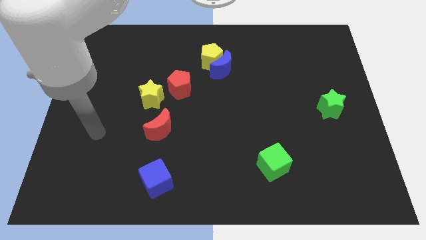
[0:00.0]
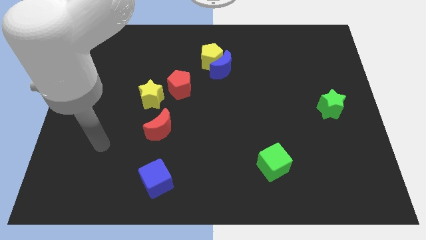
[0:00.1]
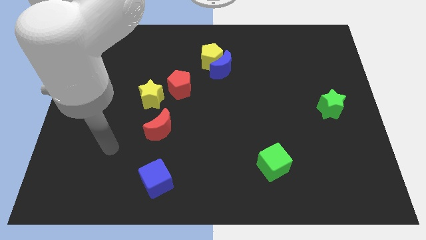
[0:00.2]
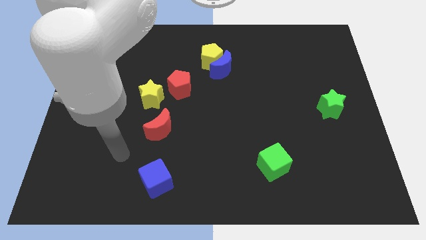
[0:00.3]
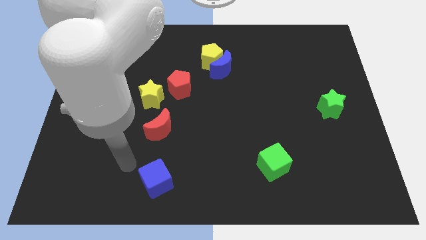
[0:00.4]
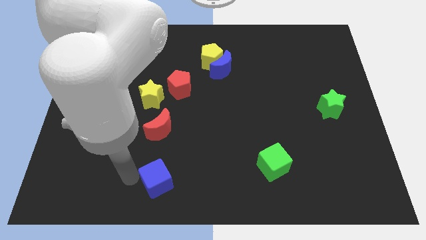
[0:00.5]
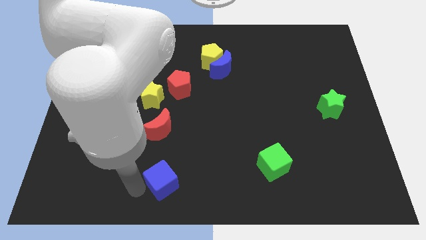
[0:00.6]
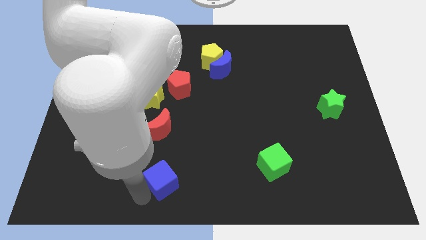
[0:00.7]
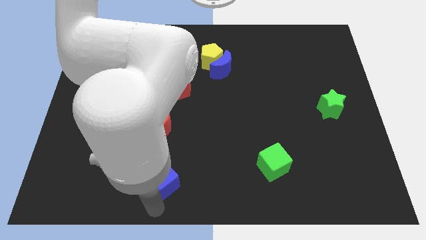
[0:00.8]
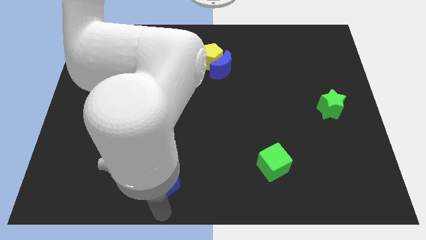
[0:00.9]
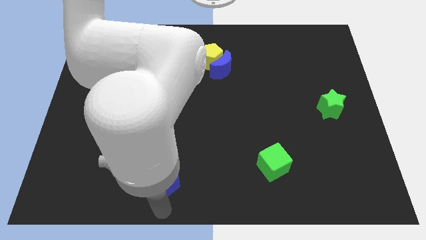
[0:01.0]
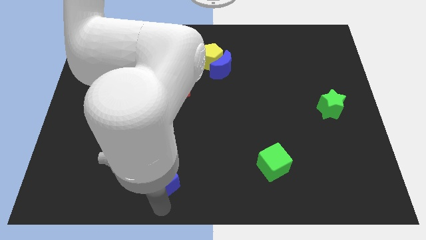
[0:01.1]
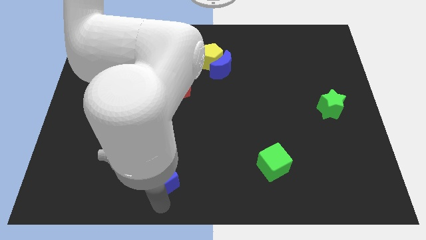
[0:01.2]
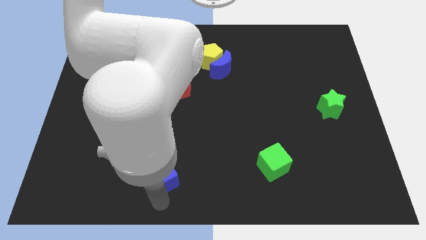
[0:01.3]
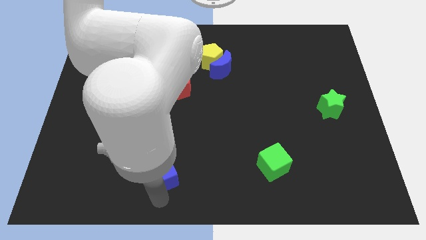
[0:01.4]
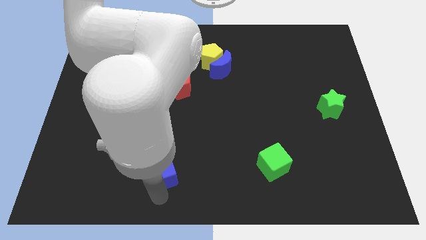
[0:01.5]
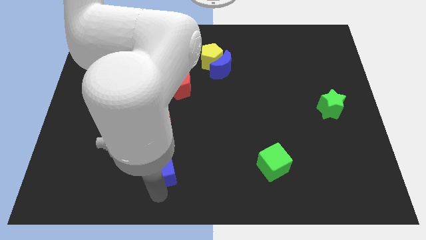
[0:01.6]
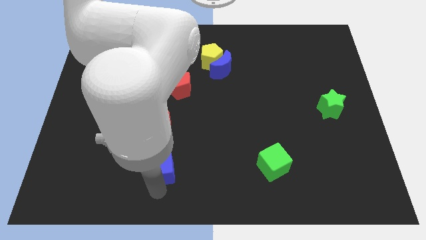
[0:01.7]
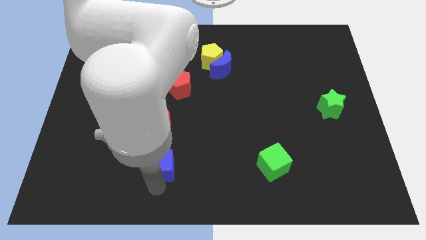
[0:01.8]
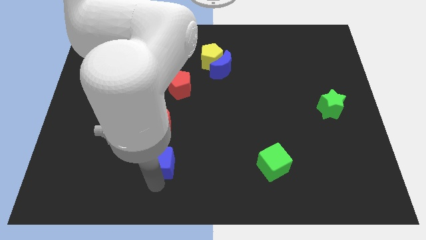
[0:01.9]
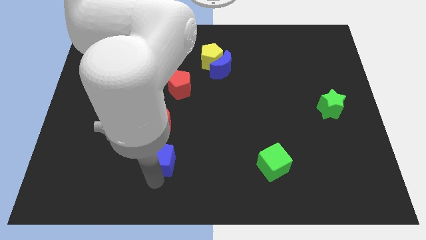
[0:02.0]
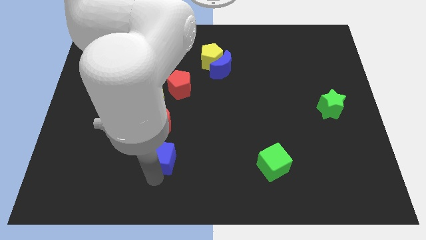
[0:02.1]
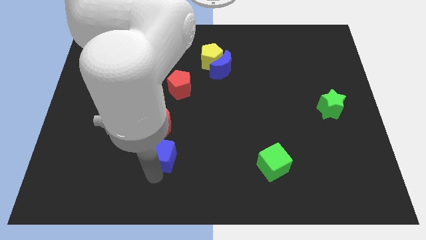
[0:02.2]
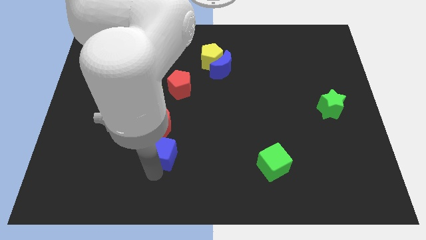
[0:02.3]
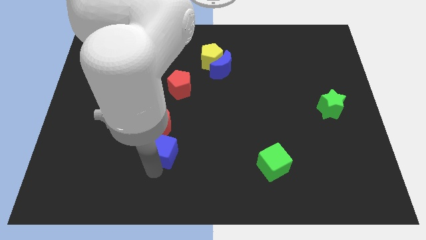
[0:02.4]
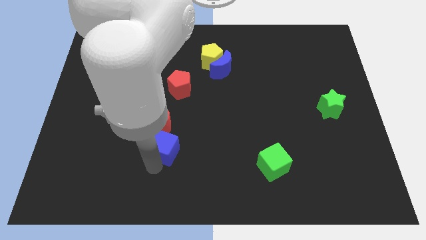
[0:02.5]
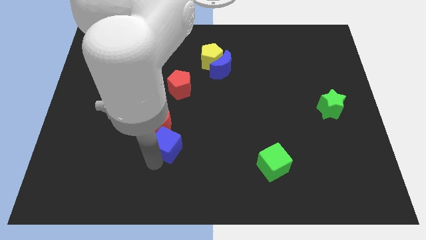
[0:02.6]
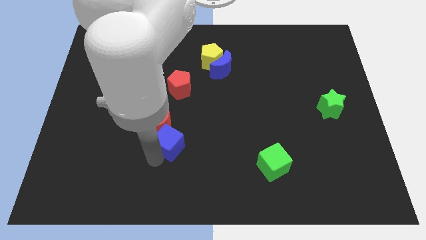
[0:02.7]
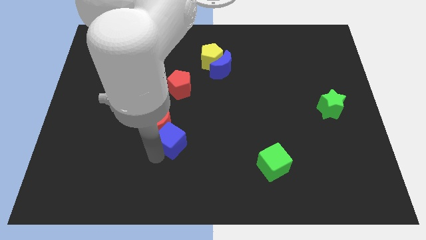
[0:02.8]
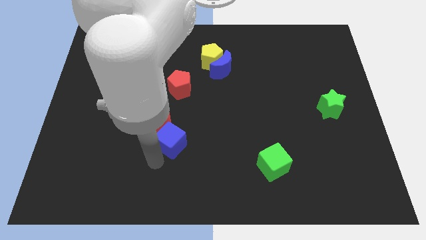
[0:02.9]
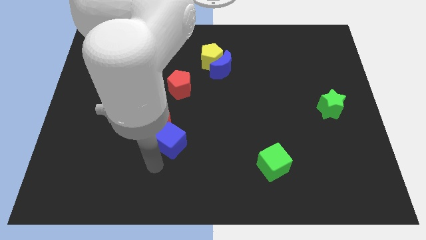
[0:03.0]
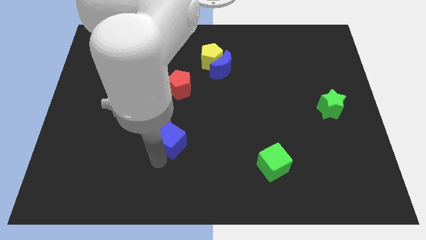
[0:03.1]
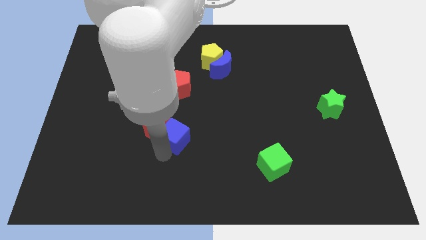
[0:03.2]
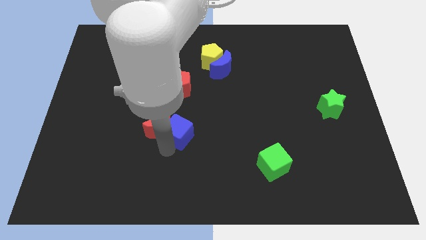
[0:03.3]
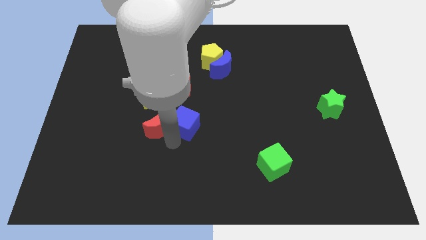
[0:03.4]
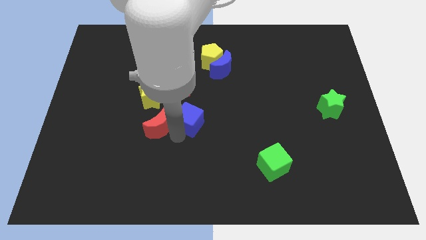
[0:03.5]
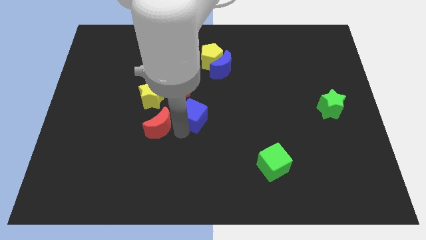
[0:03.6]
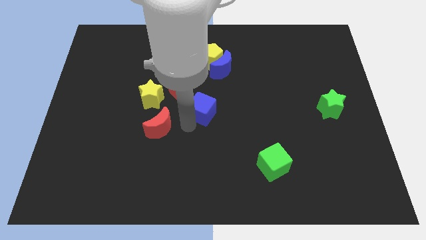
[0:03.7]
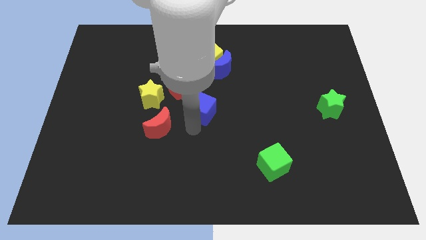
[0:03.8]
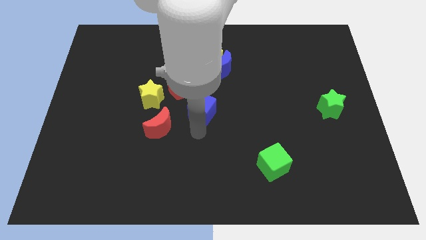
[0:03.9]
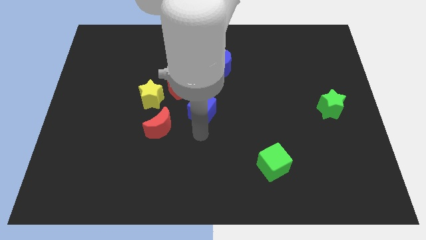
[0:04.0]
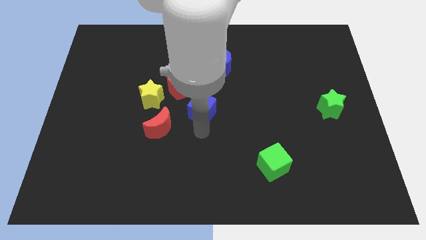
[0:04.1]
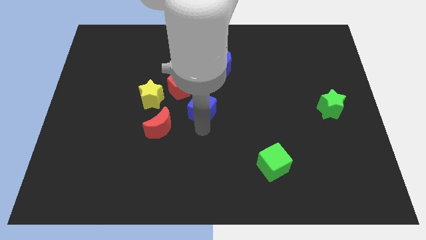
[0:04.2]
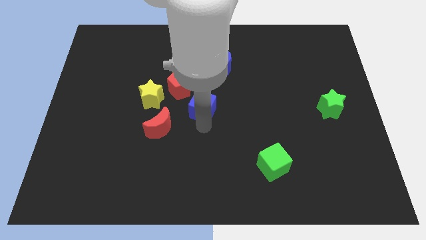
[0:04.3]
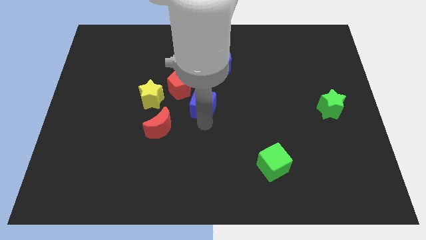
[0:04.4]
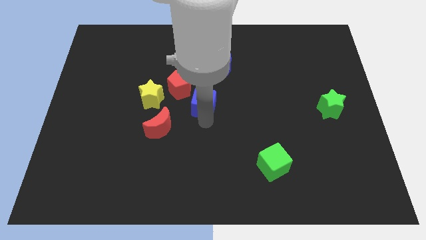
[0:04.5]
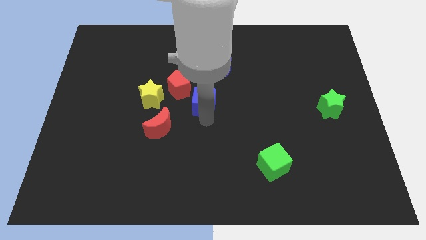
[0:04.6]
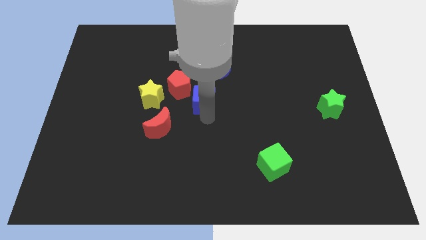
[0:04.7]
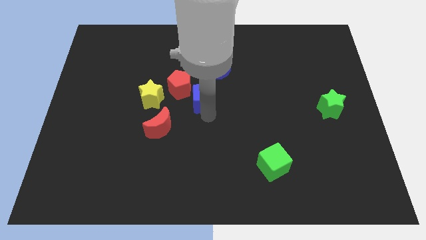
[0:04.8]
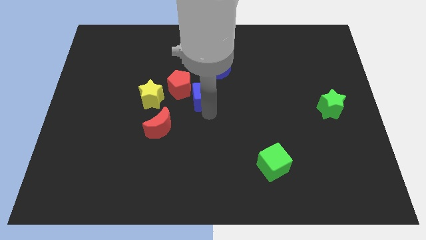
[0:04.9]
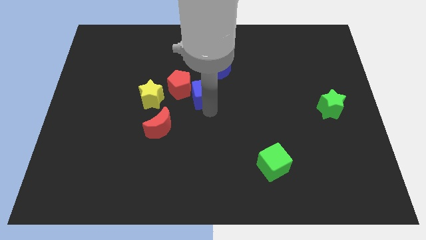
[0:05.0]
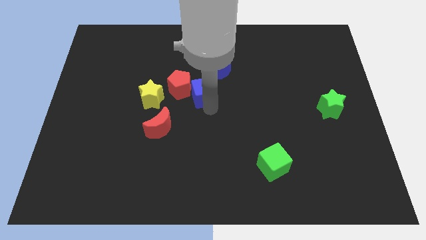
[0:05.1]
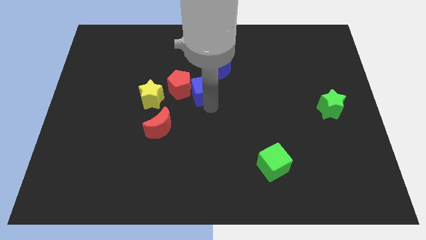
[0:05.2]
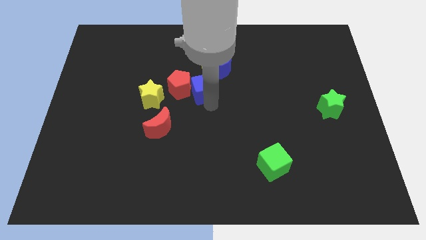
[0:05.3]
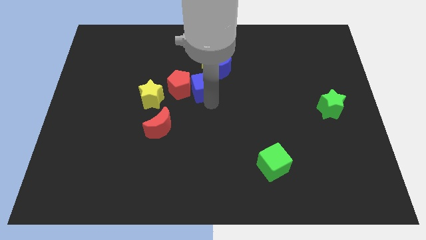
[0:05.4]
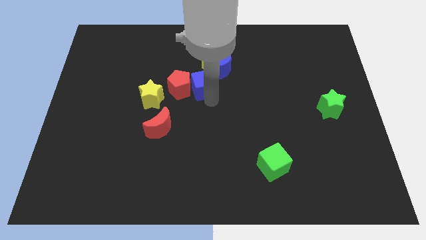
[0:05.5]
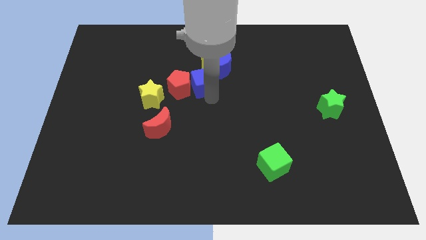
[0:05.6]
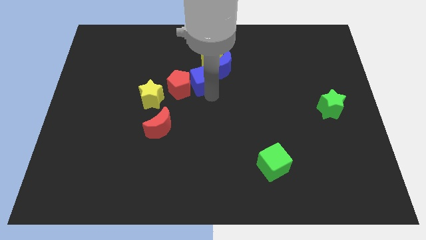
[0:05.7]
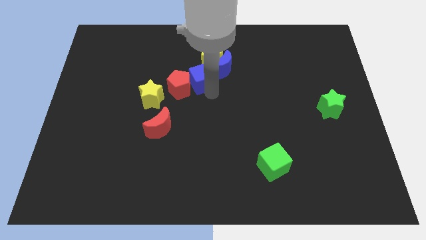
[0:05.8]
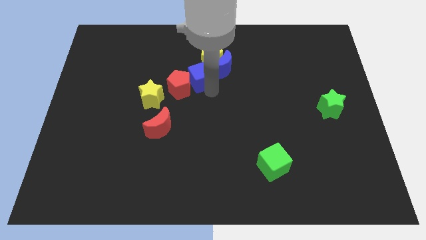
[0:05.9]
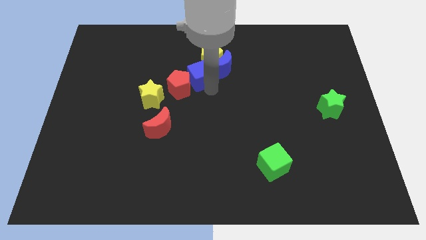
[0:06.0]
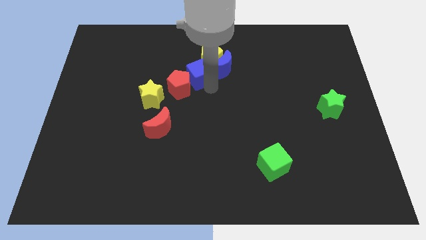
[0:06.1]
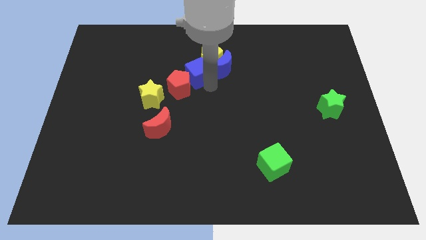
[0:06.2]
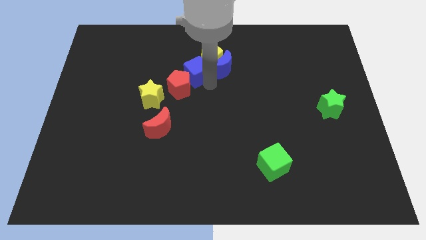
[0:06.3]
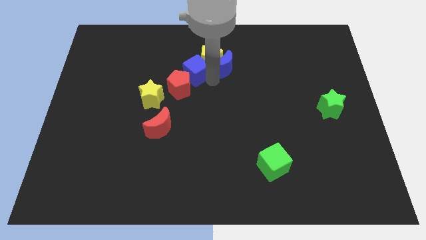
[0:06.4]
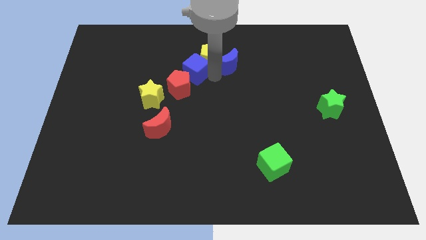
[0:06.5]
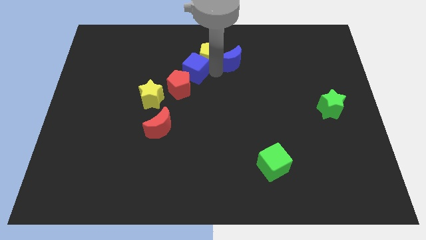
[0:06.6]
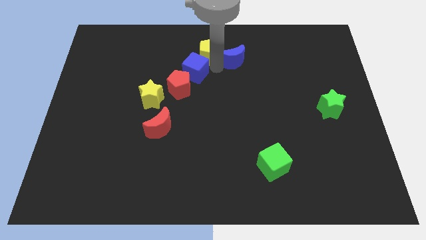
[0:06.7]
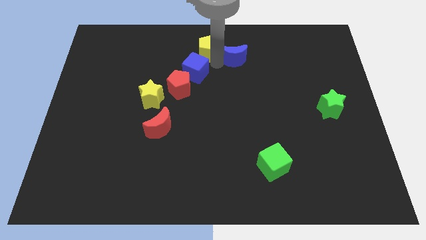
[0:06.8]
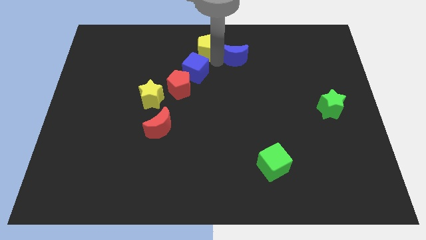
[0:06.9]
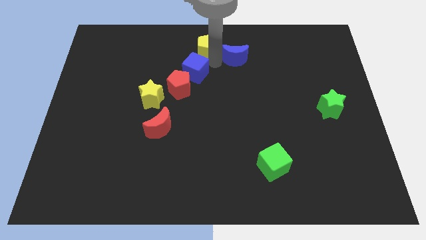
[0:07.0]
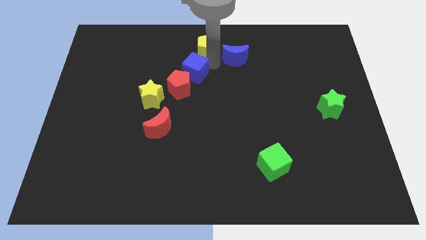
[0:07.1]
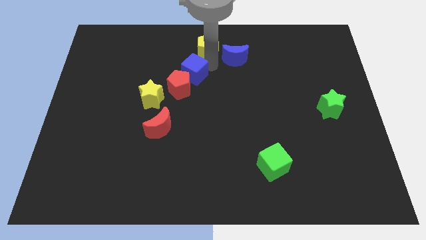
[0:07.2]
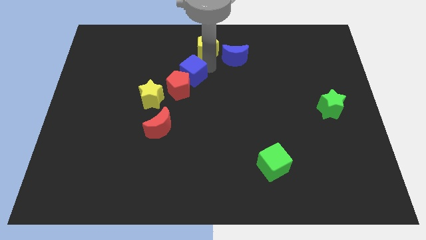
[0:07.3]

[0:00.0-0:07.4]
put the blue cube to the top right of the yellow star
